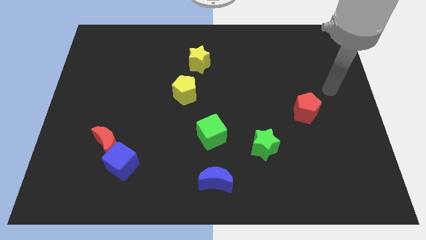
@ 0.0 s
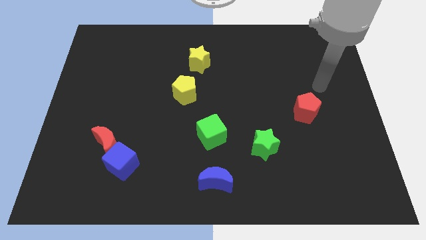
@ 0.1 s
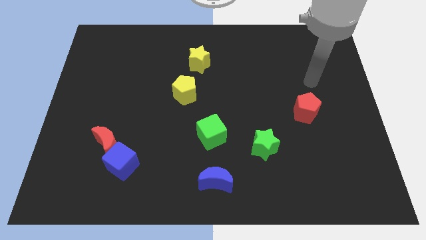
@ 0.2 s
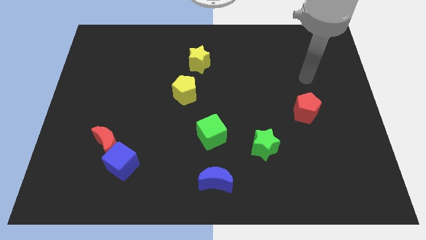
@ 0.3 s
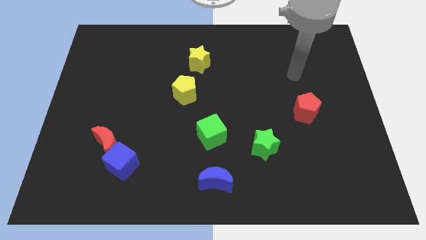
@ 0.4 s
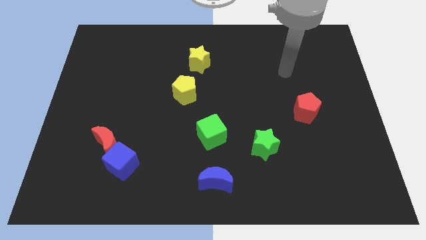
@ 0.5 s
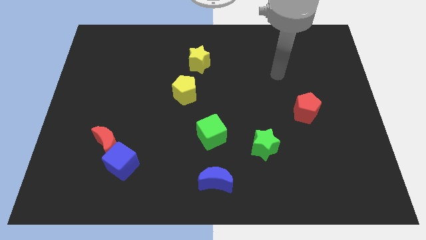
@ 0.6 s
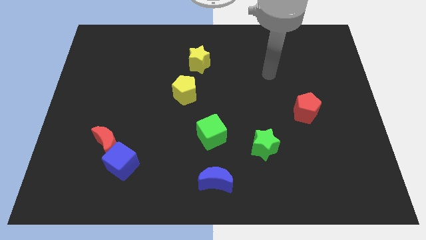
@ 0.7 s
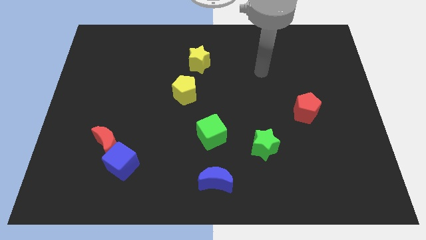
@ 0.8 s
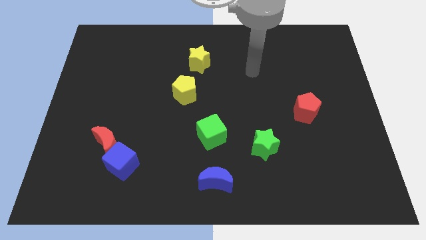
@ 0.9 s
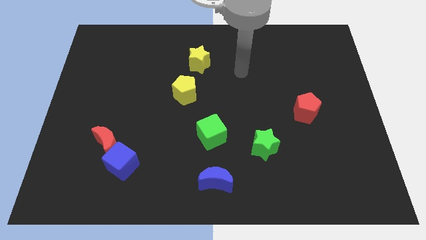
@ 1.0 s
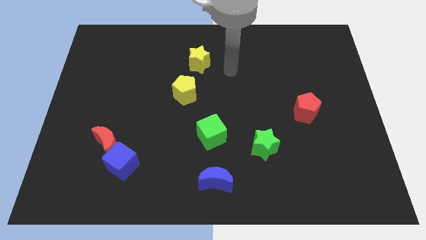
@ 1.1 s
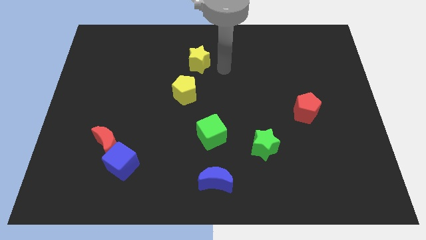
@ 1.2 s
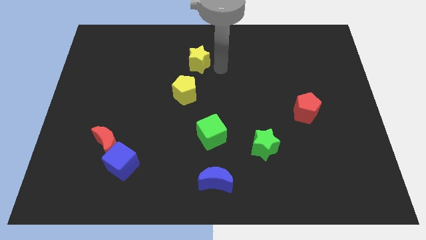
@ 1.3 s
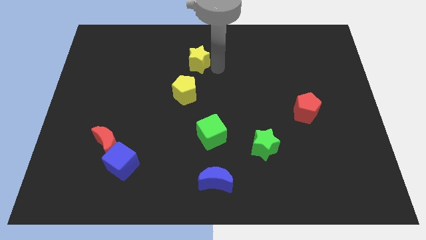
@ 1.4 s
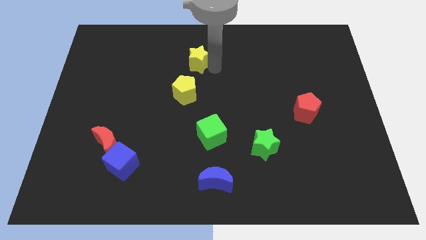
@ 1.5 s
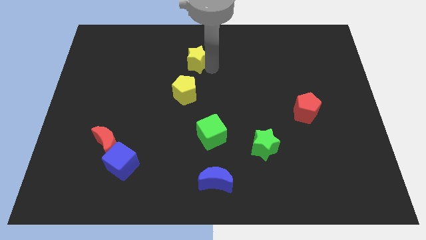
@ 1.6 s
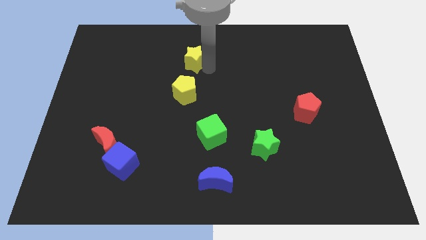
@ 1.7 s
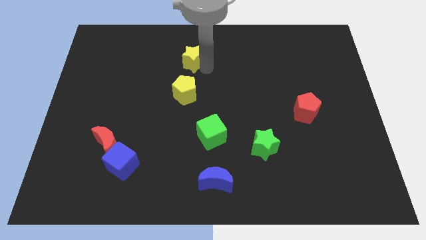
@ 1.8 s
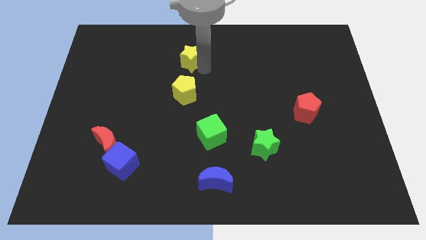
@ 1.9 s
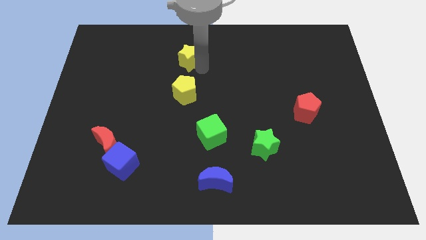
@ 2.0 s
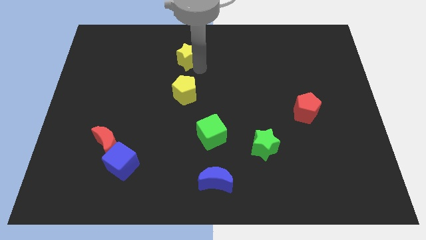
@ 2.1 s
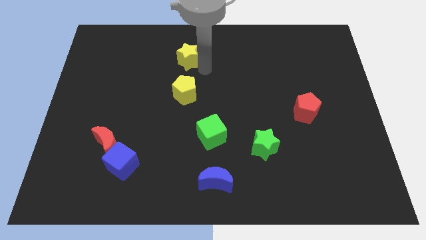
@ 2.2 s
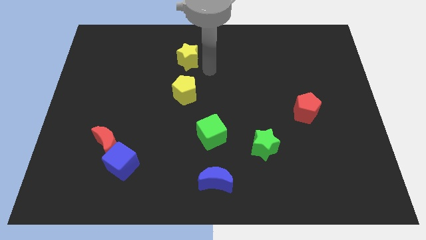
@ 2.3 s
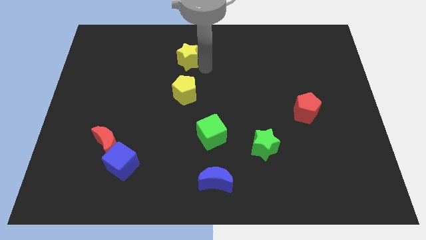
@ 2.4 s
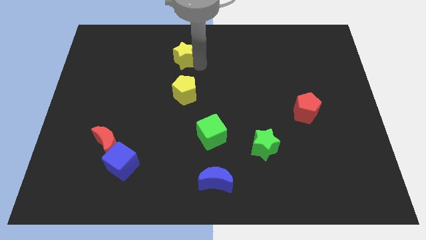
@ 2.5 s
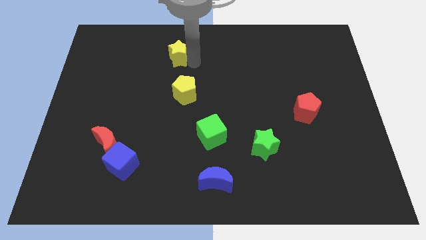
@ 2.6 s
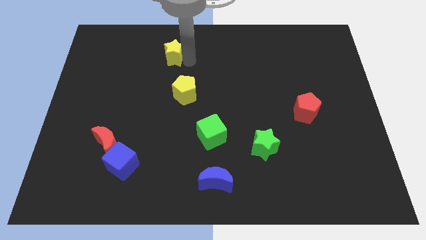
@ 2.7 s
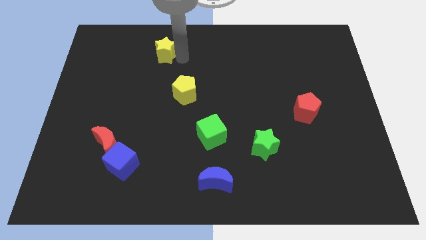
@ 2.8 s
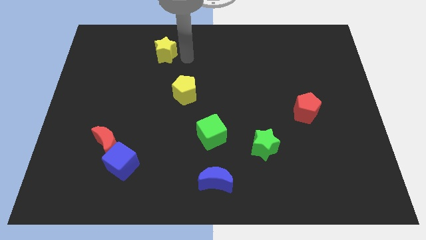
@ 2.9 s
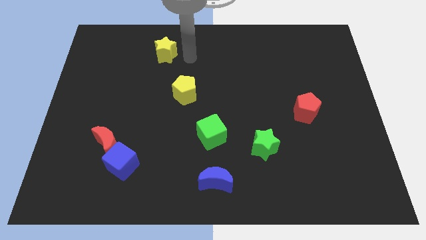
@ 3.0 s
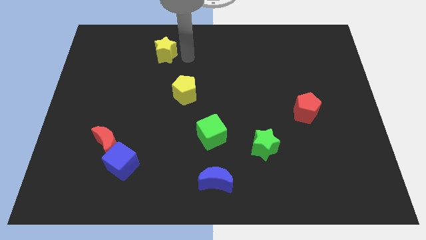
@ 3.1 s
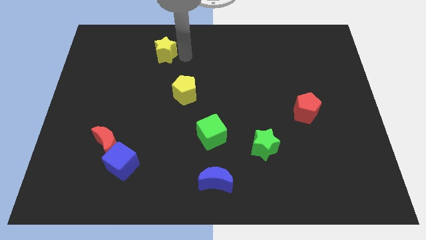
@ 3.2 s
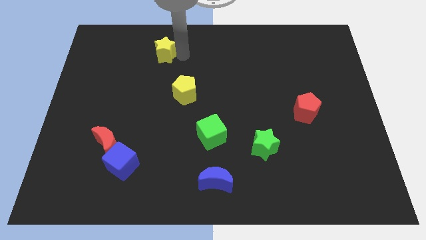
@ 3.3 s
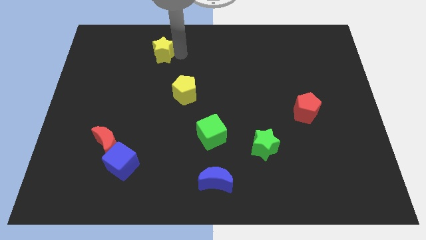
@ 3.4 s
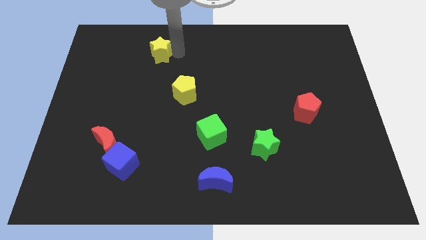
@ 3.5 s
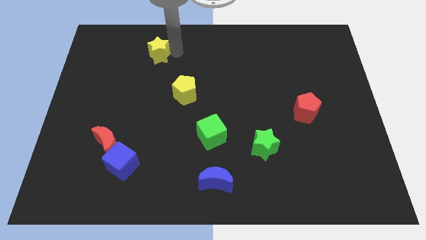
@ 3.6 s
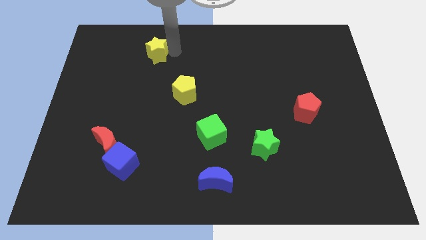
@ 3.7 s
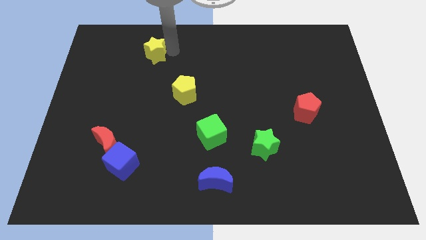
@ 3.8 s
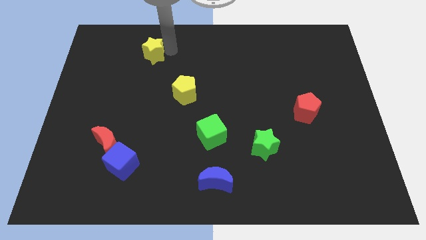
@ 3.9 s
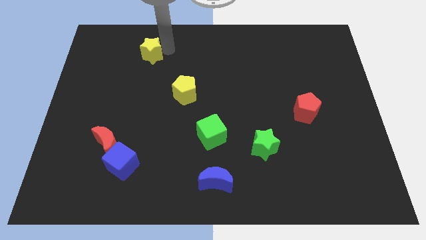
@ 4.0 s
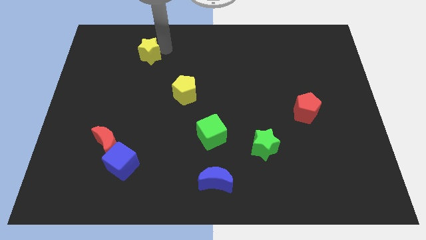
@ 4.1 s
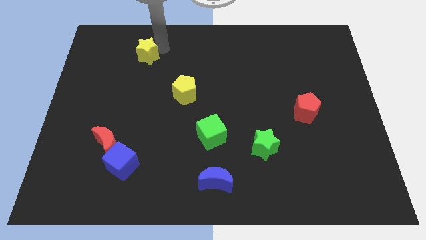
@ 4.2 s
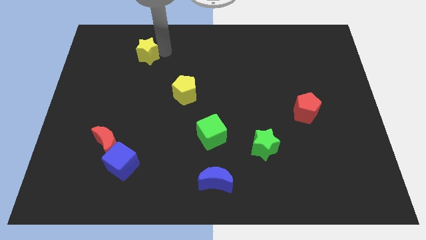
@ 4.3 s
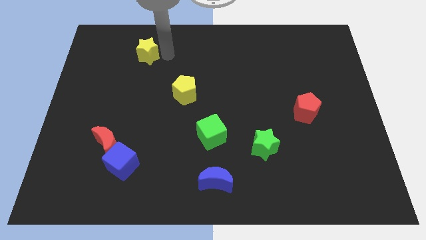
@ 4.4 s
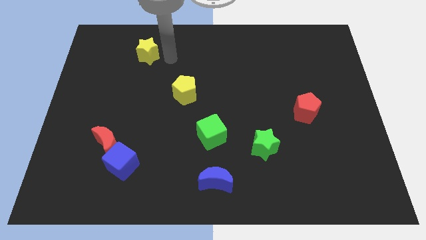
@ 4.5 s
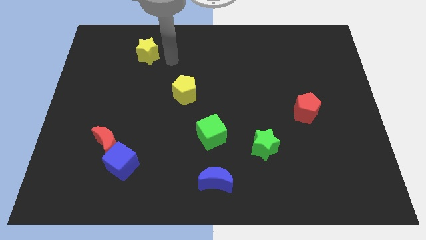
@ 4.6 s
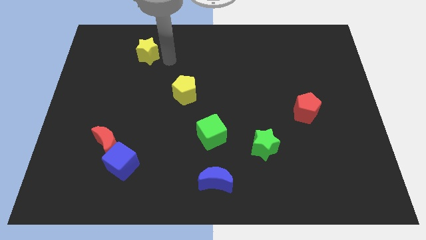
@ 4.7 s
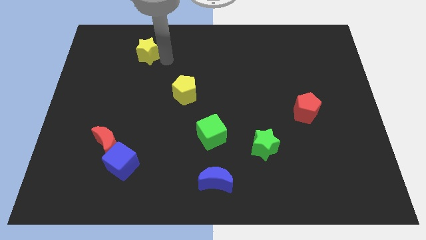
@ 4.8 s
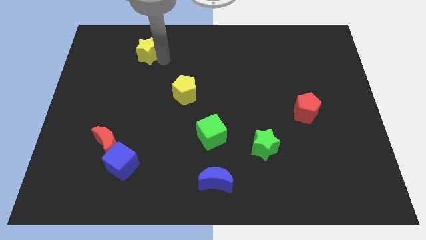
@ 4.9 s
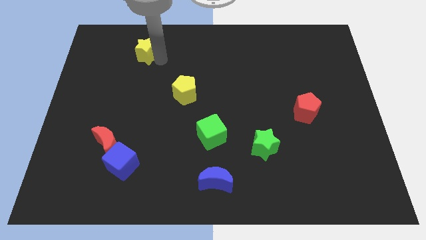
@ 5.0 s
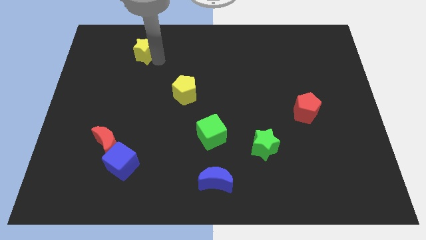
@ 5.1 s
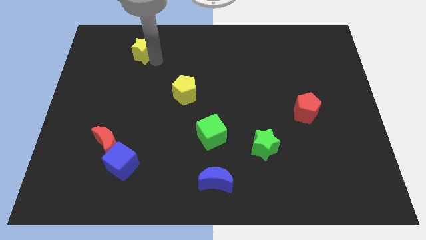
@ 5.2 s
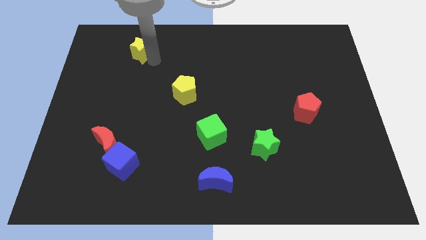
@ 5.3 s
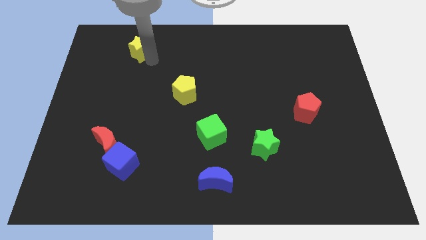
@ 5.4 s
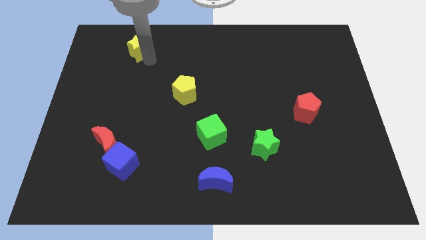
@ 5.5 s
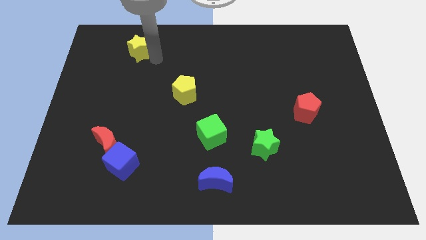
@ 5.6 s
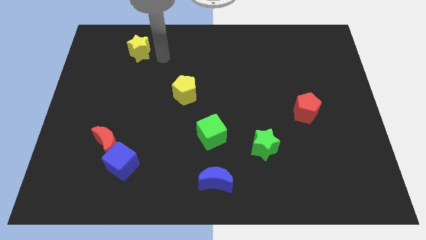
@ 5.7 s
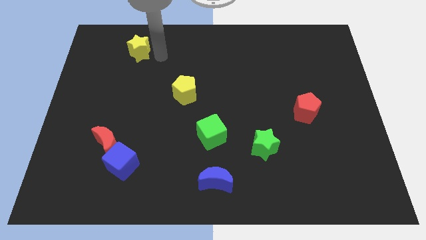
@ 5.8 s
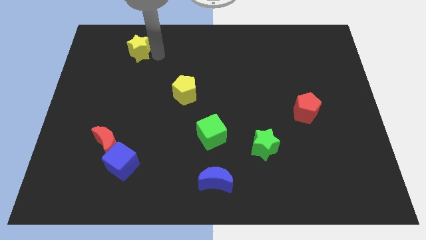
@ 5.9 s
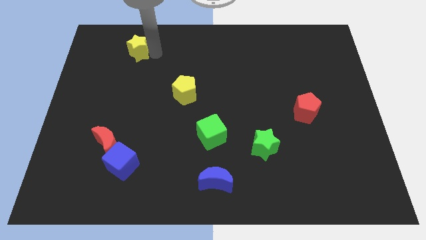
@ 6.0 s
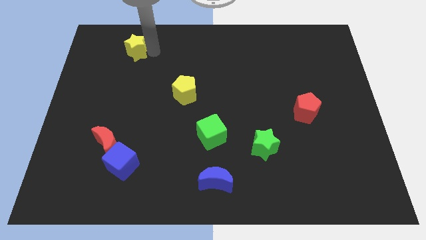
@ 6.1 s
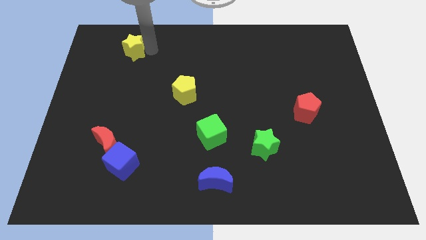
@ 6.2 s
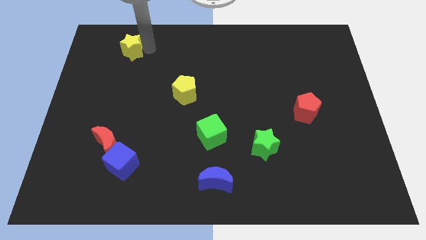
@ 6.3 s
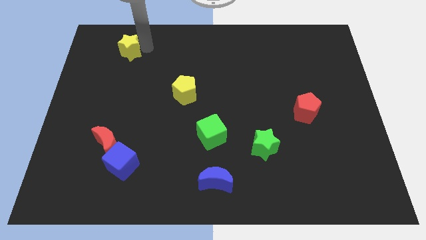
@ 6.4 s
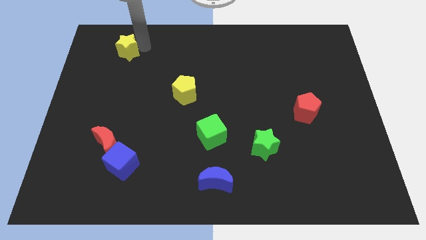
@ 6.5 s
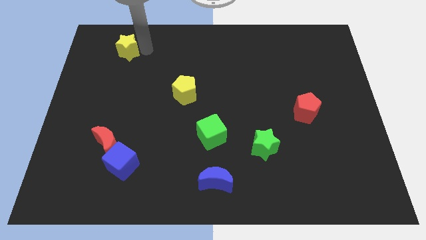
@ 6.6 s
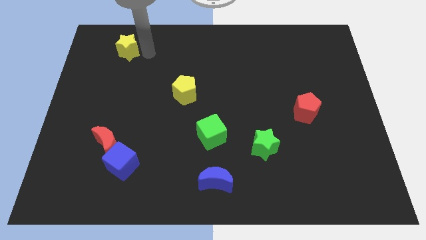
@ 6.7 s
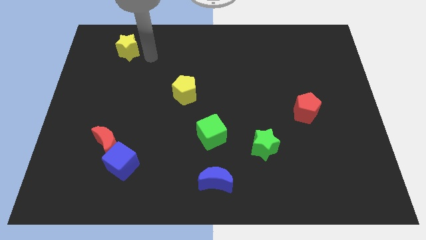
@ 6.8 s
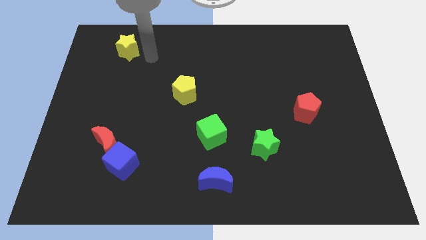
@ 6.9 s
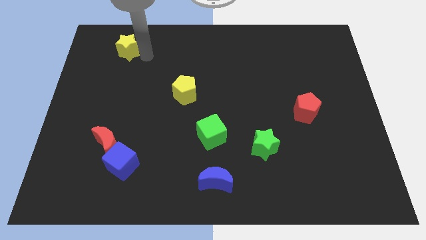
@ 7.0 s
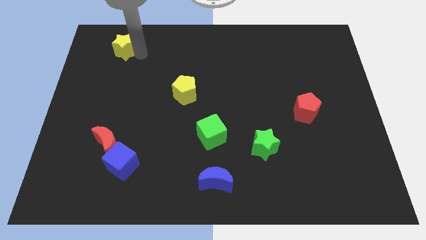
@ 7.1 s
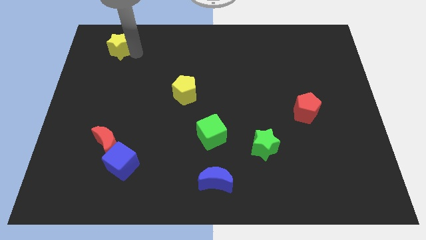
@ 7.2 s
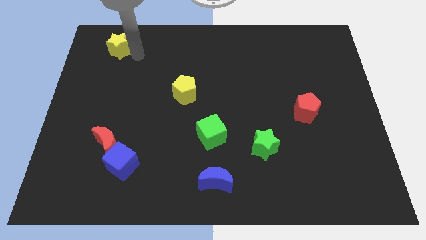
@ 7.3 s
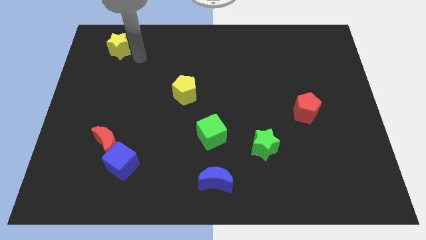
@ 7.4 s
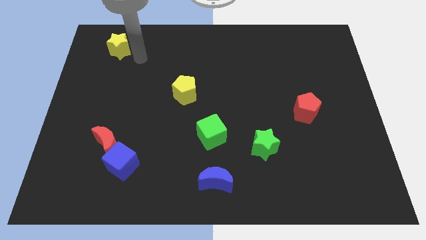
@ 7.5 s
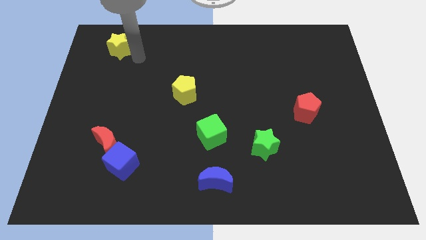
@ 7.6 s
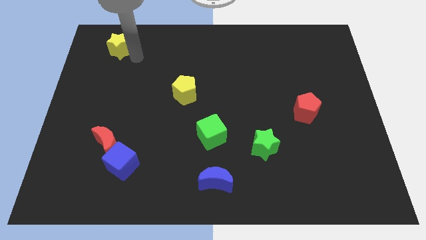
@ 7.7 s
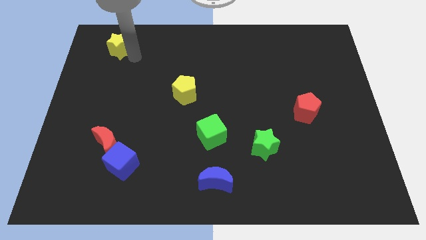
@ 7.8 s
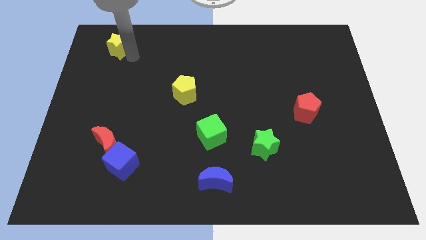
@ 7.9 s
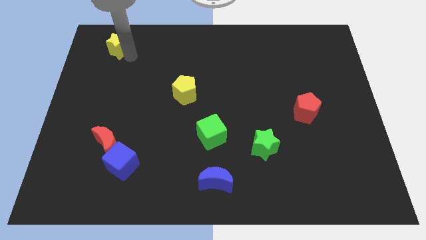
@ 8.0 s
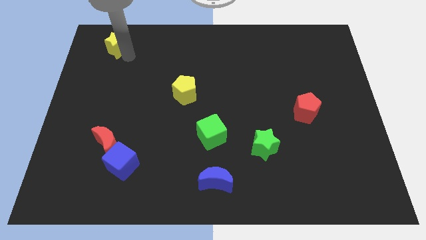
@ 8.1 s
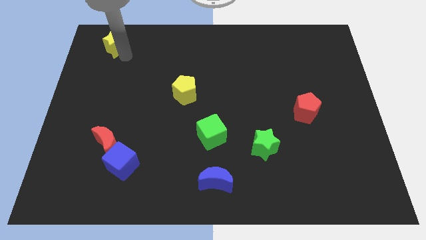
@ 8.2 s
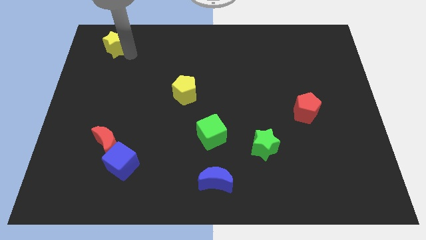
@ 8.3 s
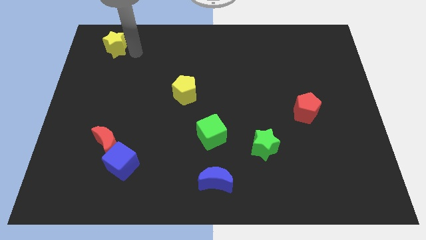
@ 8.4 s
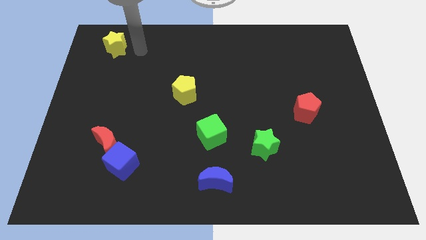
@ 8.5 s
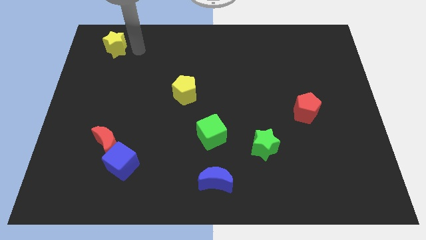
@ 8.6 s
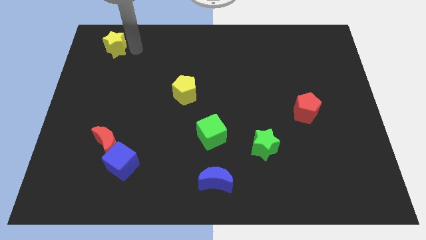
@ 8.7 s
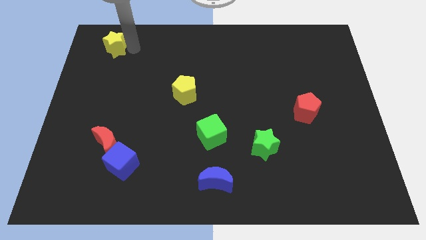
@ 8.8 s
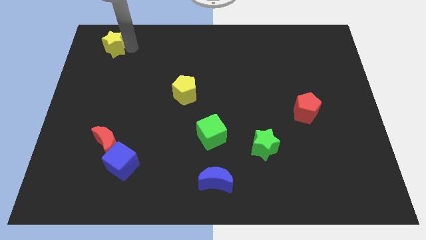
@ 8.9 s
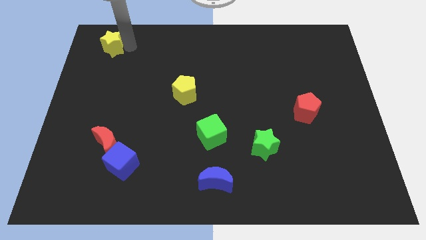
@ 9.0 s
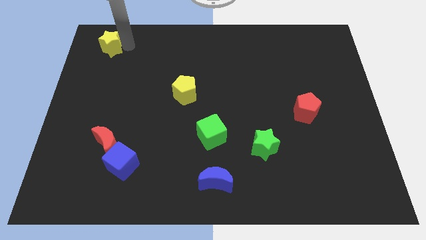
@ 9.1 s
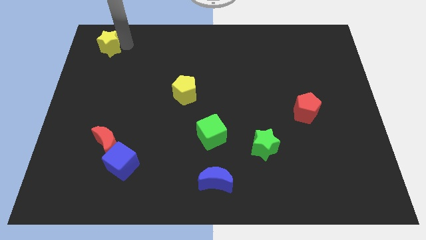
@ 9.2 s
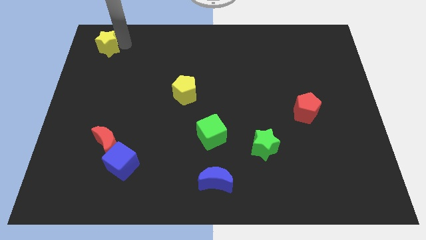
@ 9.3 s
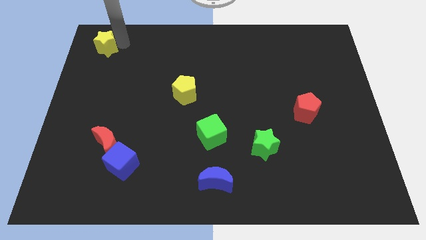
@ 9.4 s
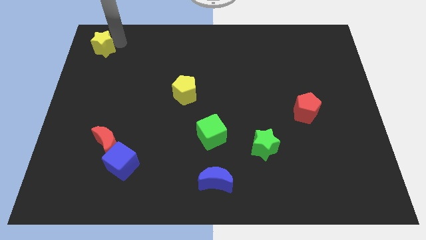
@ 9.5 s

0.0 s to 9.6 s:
move the yellow star to the top left corner
